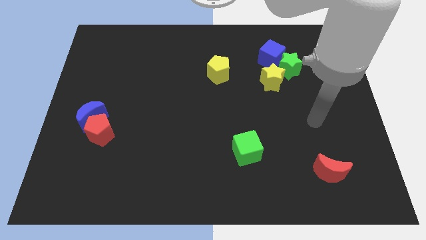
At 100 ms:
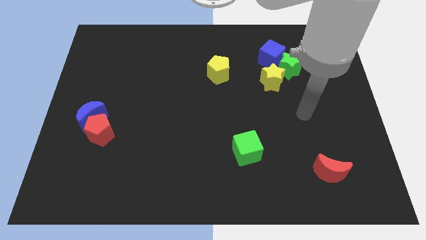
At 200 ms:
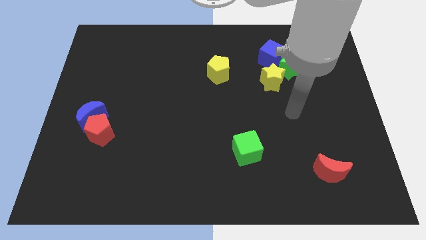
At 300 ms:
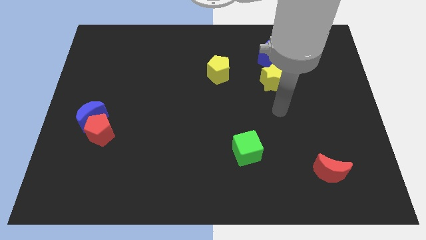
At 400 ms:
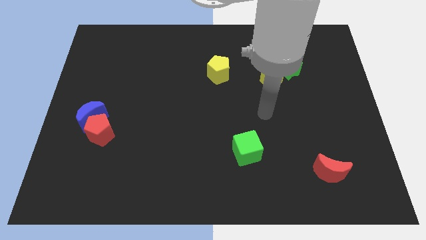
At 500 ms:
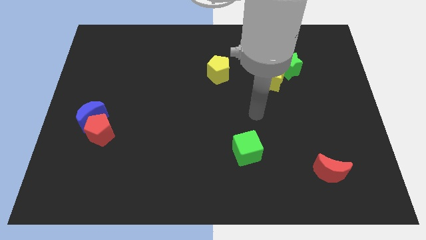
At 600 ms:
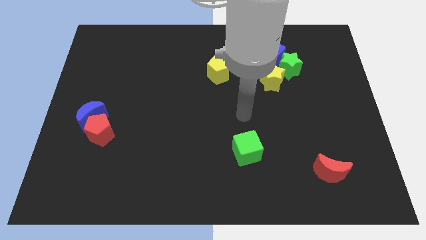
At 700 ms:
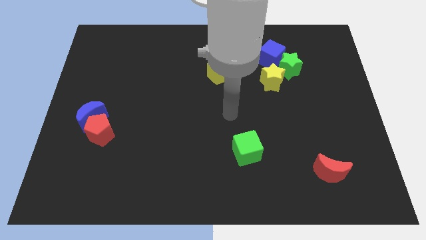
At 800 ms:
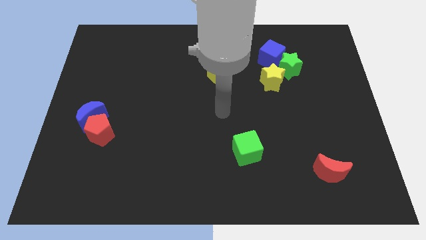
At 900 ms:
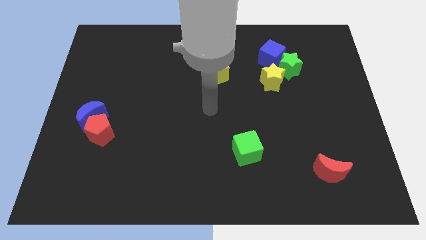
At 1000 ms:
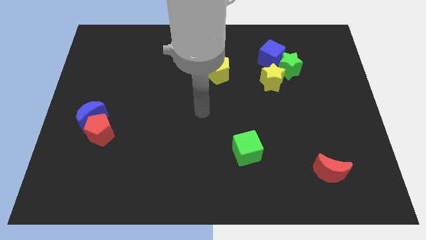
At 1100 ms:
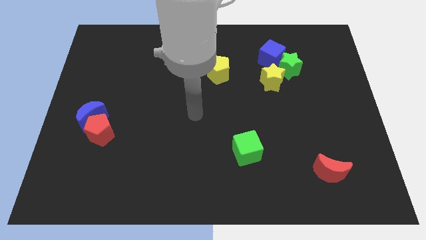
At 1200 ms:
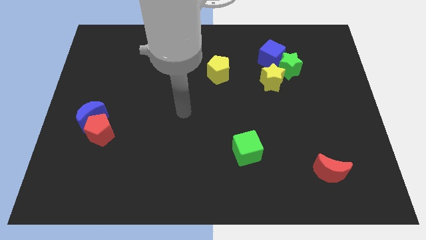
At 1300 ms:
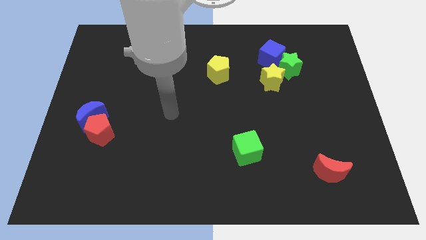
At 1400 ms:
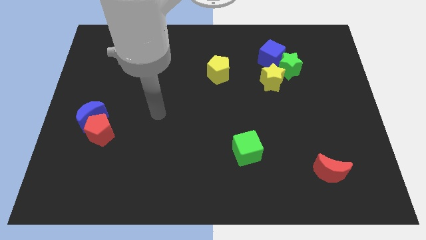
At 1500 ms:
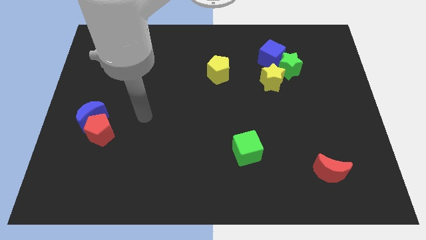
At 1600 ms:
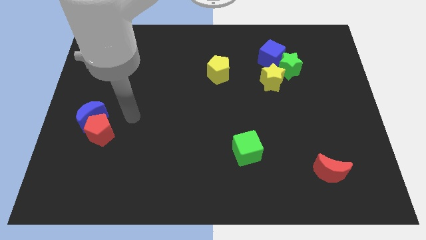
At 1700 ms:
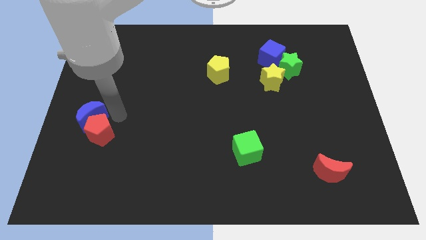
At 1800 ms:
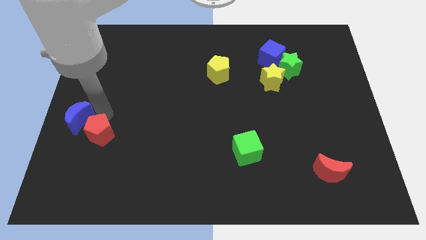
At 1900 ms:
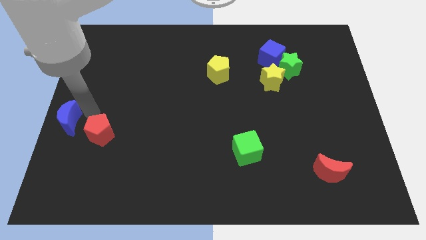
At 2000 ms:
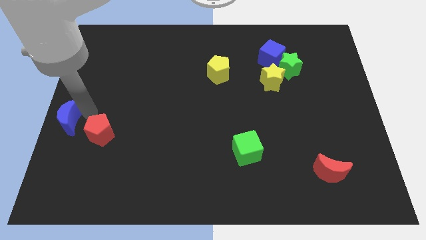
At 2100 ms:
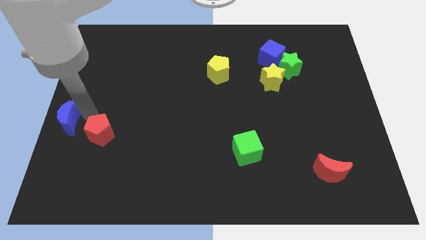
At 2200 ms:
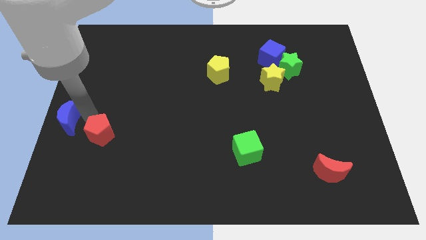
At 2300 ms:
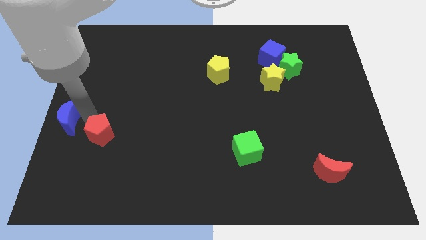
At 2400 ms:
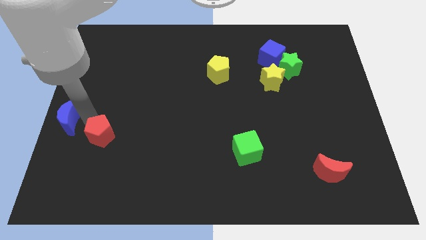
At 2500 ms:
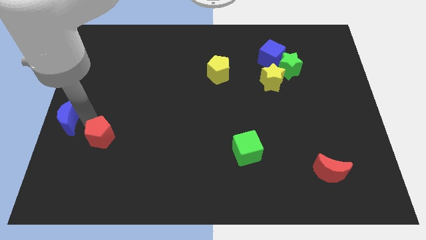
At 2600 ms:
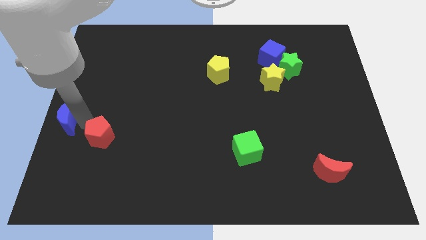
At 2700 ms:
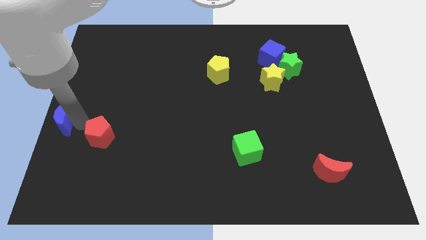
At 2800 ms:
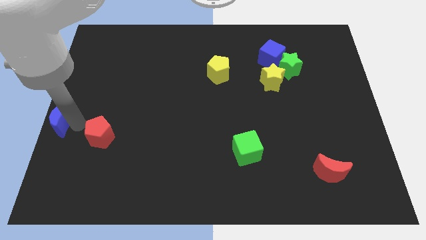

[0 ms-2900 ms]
move the red pentagon away from the blue moon

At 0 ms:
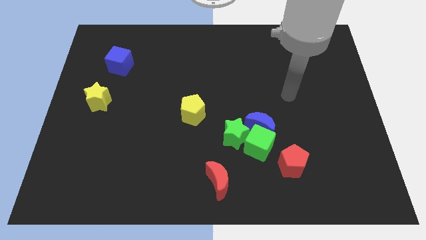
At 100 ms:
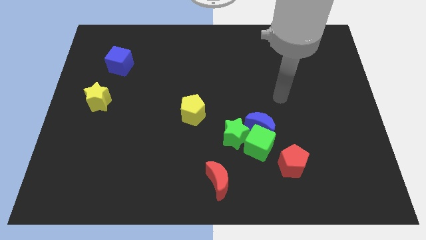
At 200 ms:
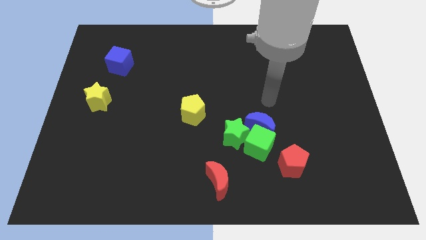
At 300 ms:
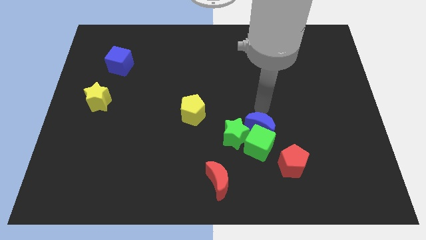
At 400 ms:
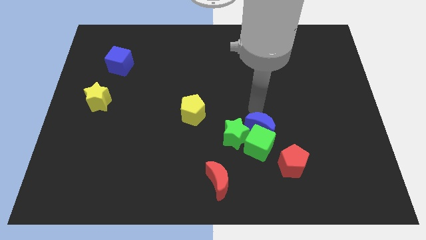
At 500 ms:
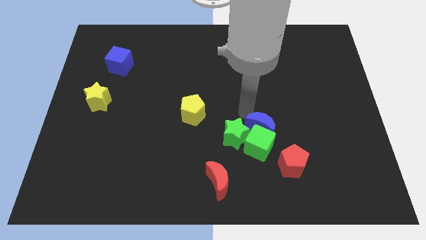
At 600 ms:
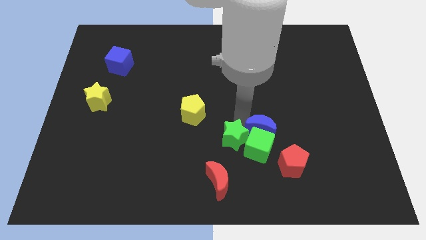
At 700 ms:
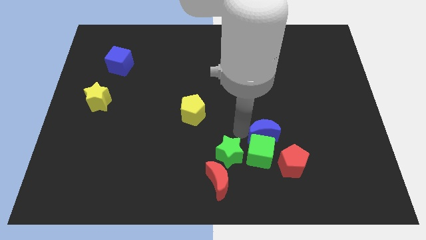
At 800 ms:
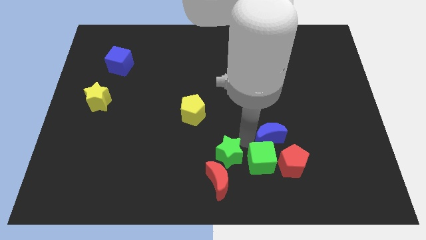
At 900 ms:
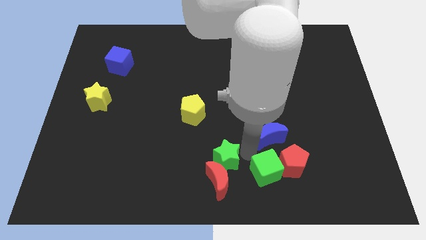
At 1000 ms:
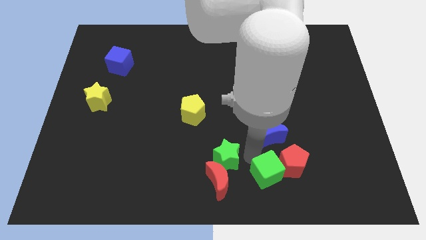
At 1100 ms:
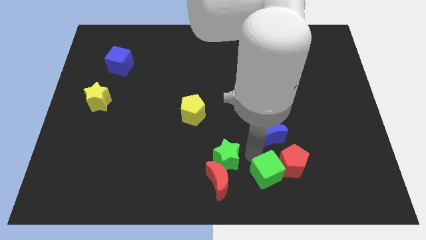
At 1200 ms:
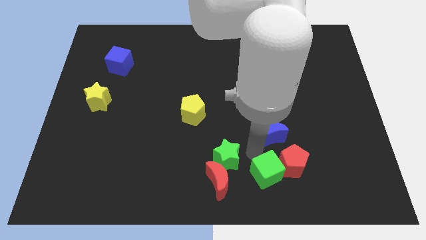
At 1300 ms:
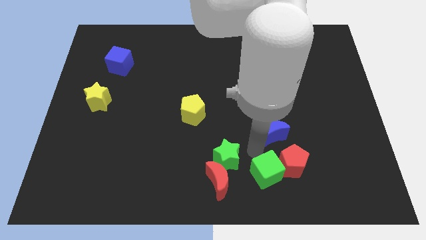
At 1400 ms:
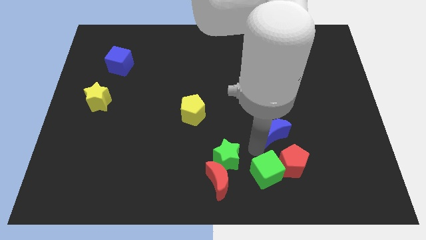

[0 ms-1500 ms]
pull the blue moon apart from the green cube and green star

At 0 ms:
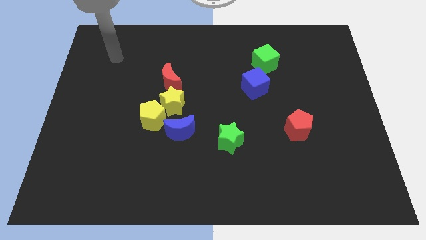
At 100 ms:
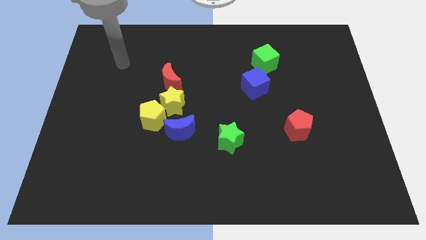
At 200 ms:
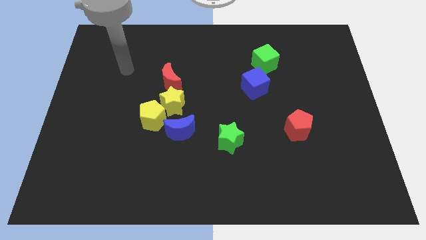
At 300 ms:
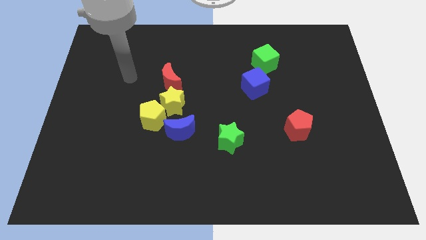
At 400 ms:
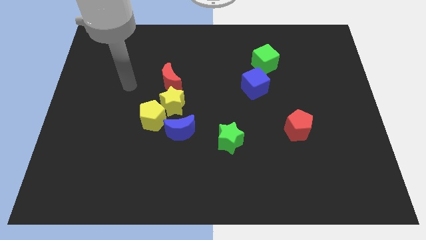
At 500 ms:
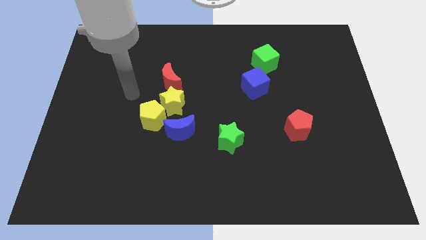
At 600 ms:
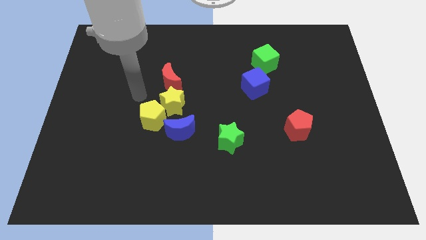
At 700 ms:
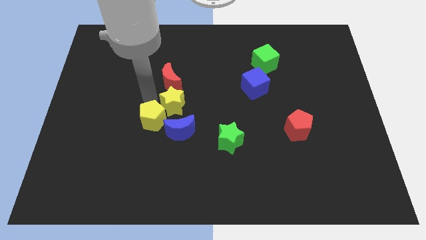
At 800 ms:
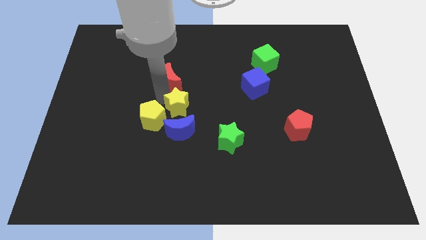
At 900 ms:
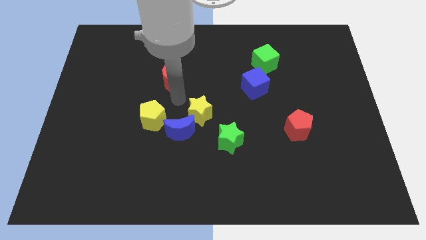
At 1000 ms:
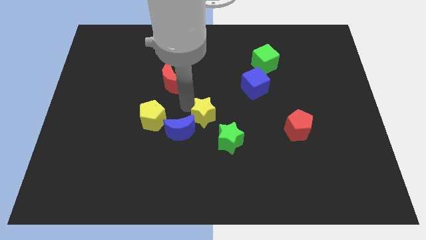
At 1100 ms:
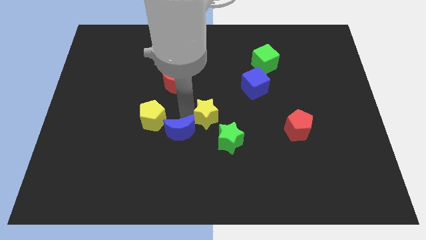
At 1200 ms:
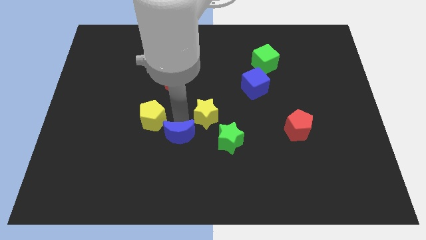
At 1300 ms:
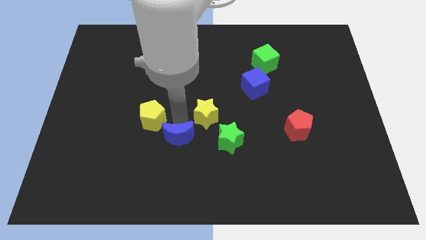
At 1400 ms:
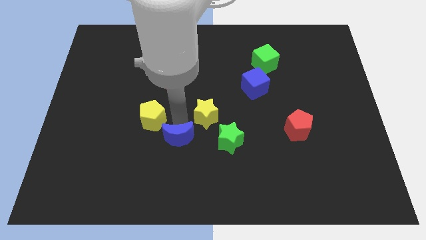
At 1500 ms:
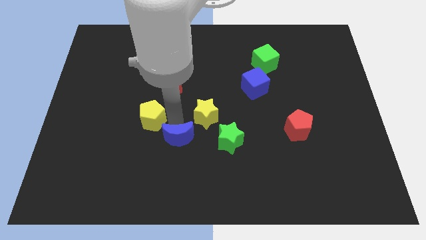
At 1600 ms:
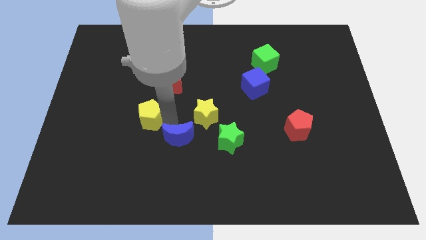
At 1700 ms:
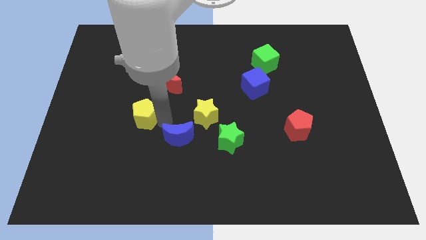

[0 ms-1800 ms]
move the yellow pentagon away from the yellow star and blue moon

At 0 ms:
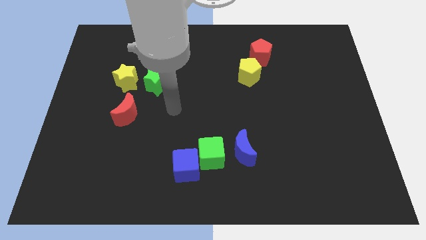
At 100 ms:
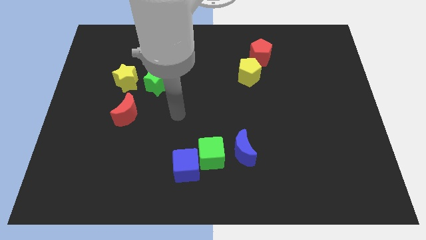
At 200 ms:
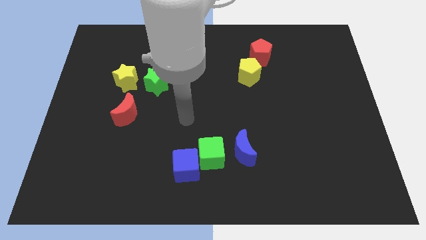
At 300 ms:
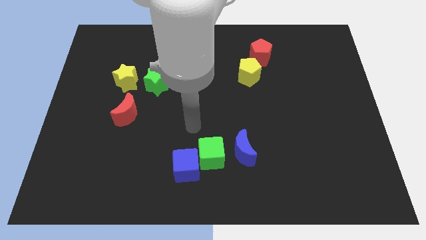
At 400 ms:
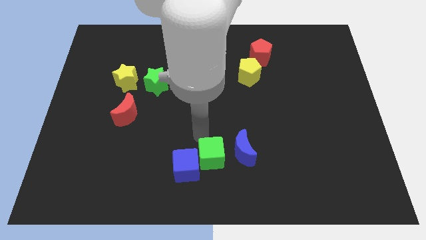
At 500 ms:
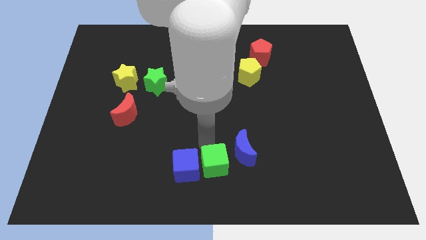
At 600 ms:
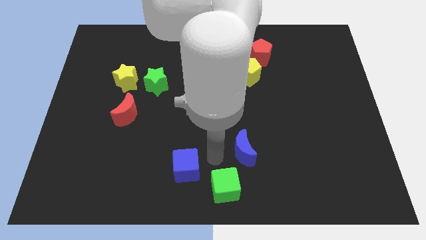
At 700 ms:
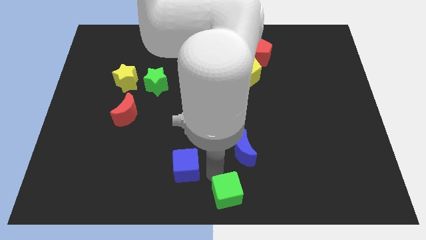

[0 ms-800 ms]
separate the blue cube from the green cube

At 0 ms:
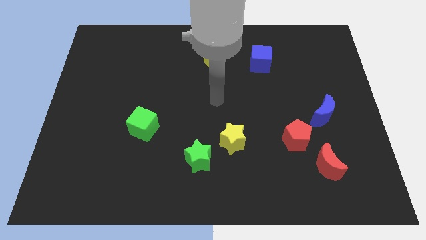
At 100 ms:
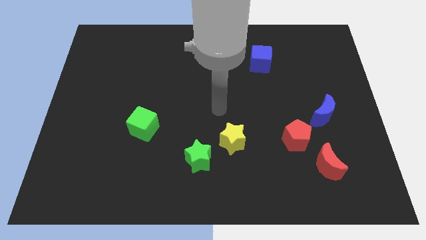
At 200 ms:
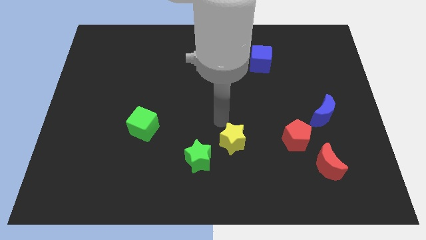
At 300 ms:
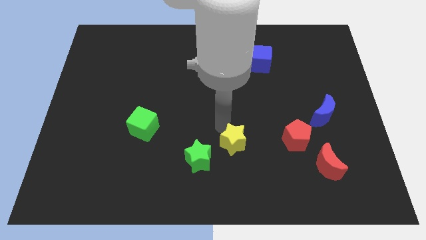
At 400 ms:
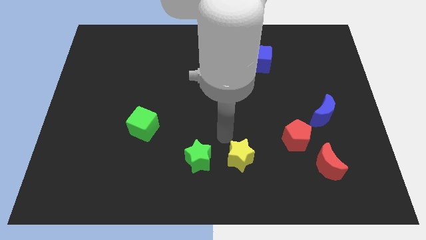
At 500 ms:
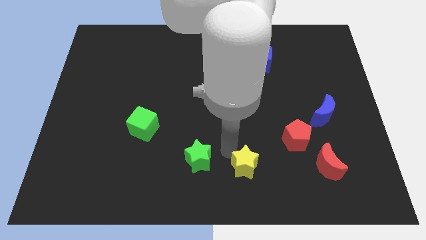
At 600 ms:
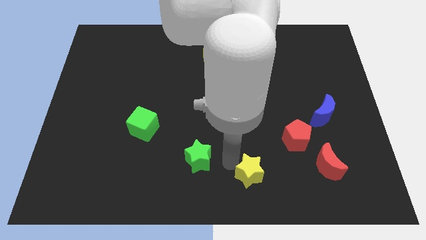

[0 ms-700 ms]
separate the green star from the yellow star

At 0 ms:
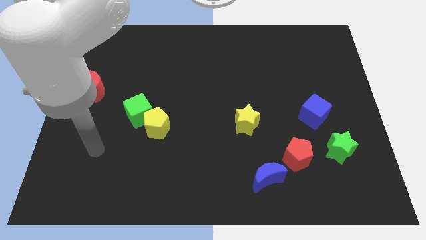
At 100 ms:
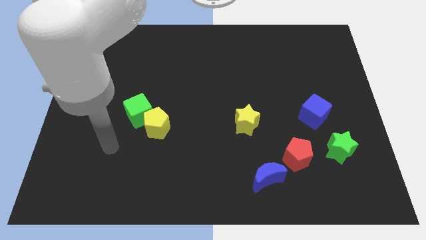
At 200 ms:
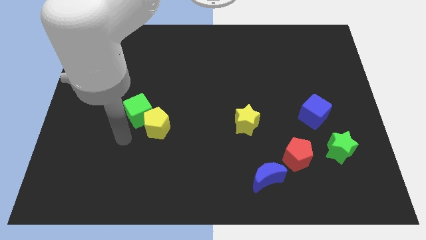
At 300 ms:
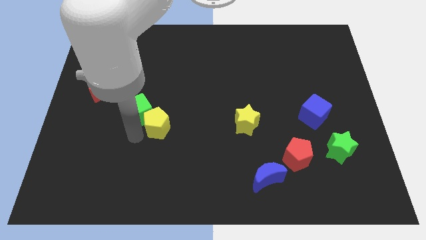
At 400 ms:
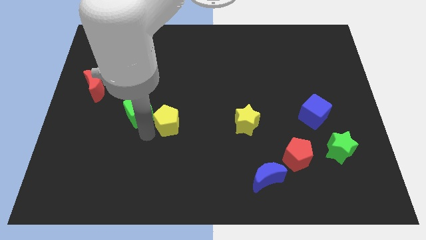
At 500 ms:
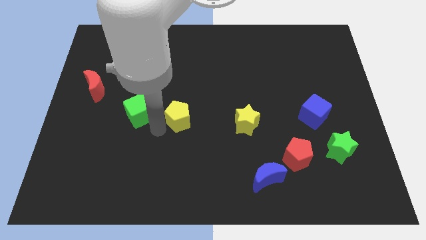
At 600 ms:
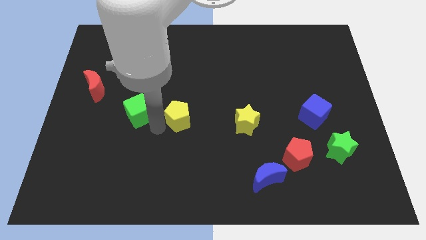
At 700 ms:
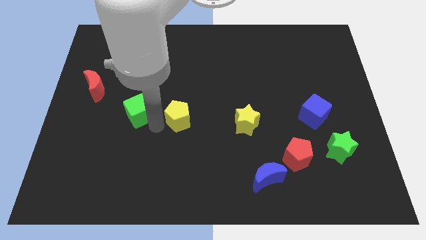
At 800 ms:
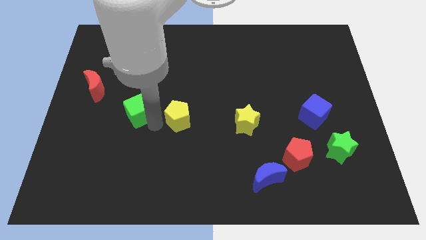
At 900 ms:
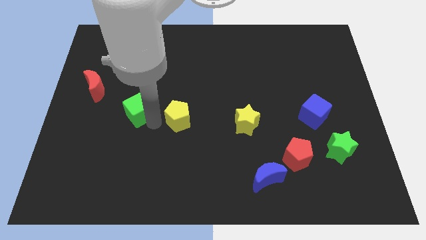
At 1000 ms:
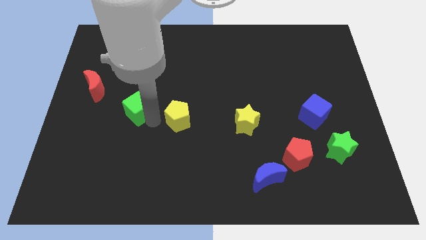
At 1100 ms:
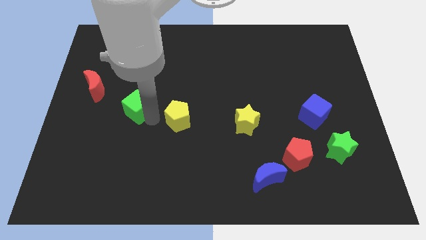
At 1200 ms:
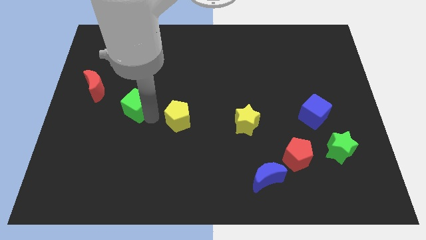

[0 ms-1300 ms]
pull the green cube apart from the yellow pentagon

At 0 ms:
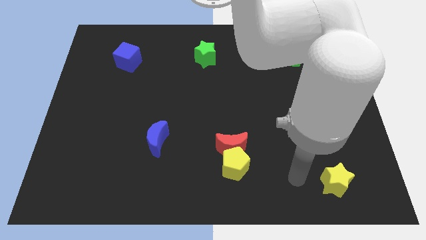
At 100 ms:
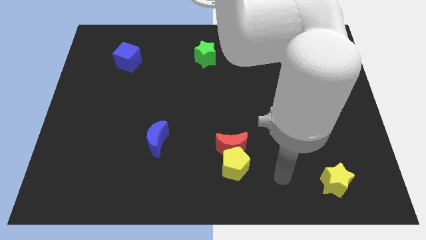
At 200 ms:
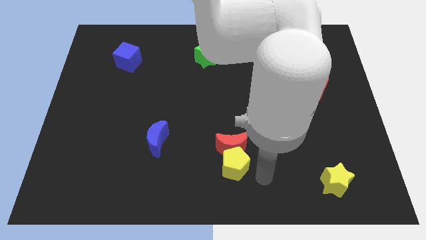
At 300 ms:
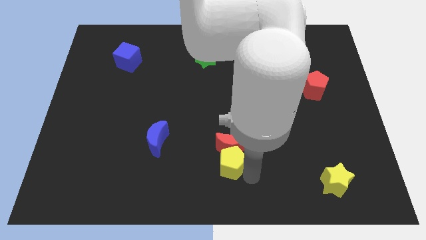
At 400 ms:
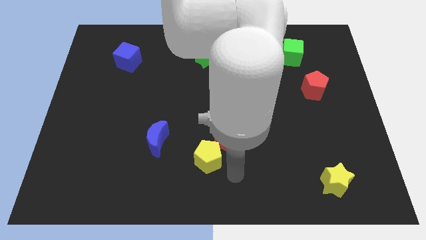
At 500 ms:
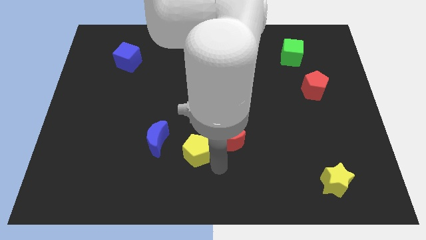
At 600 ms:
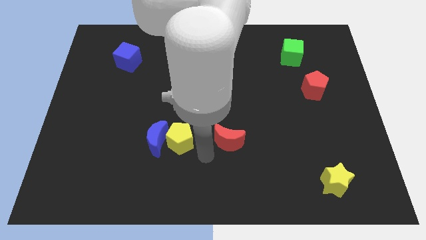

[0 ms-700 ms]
separate the red moon from the yellow pentagon
